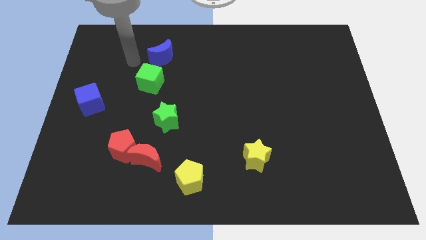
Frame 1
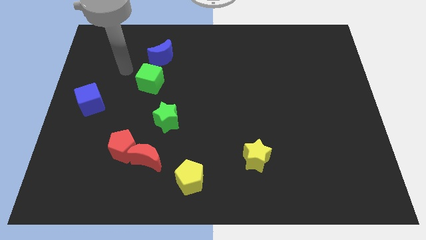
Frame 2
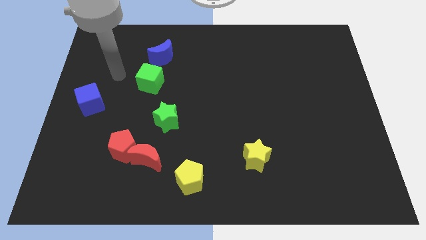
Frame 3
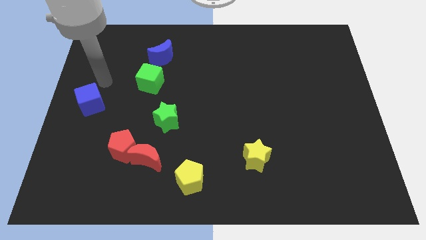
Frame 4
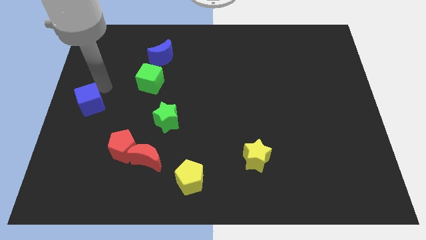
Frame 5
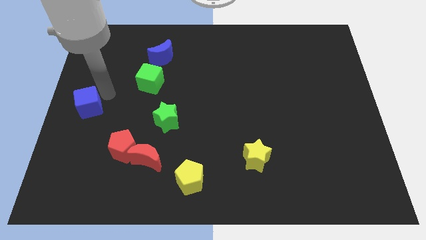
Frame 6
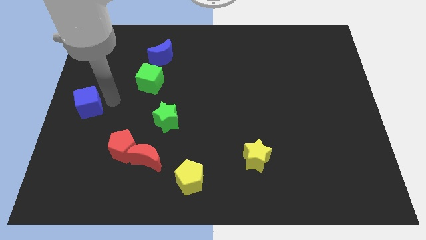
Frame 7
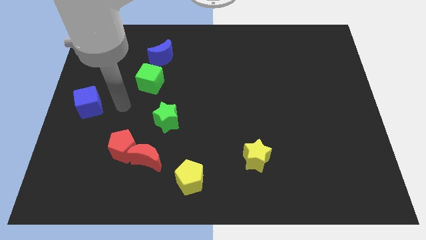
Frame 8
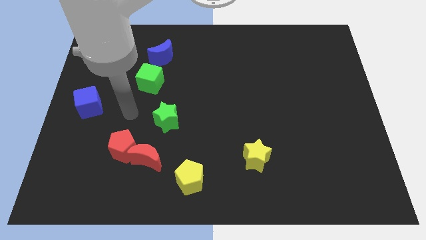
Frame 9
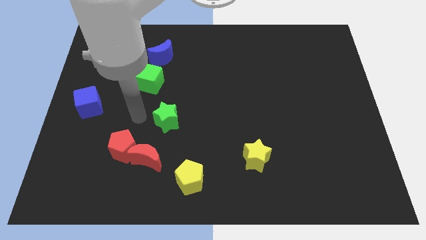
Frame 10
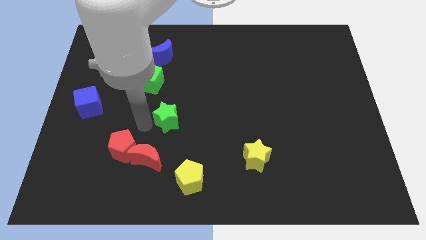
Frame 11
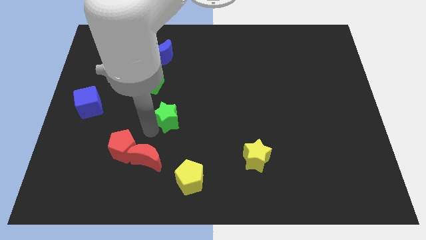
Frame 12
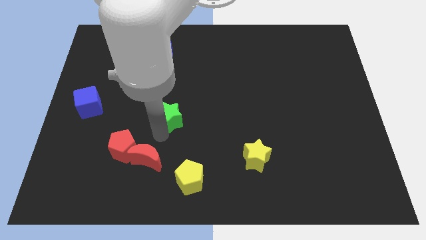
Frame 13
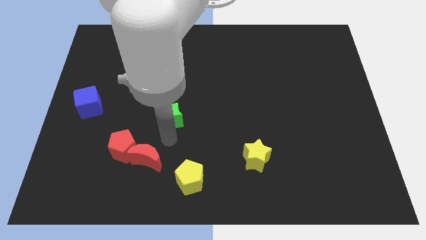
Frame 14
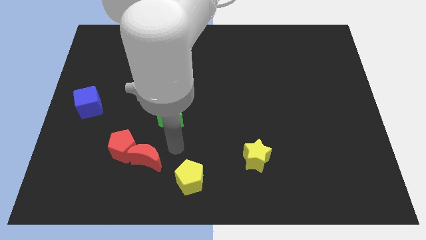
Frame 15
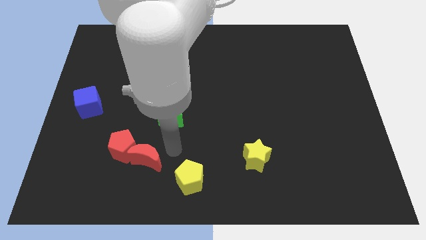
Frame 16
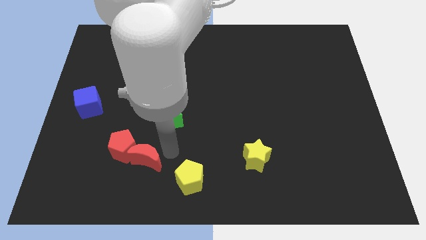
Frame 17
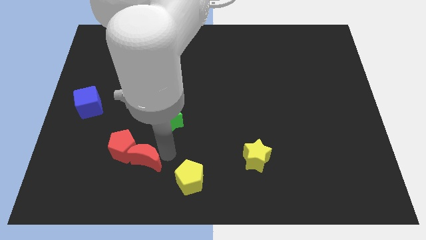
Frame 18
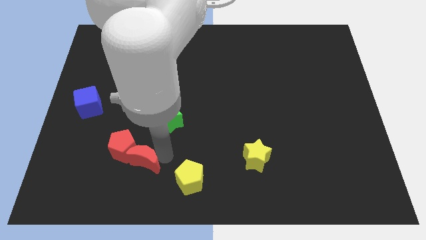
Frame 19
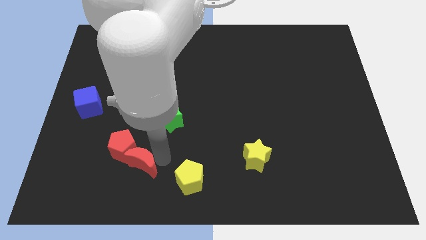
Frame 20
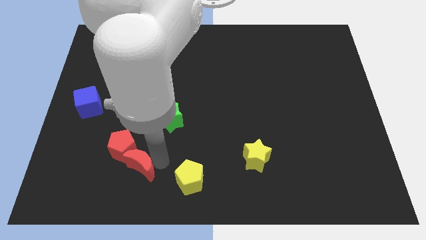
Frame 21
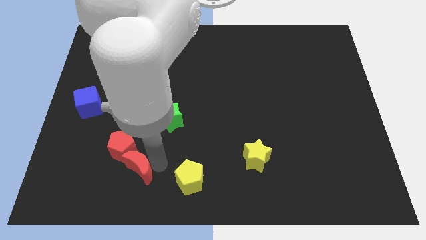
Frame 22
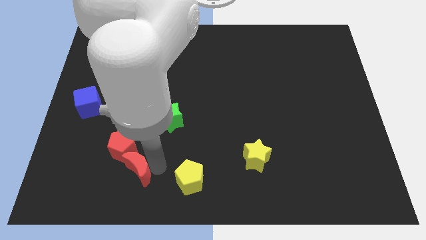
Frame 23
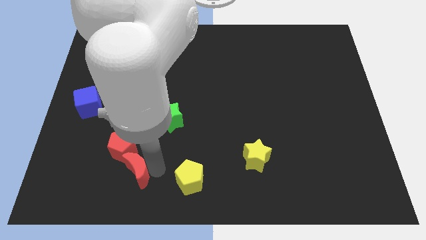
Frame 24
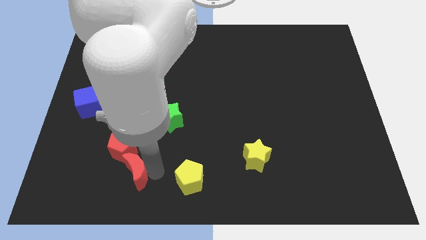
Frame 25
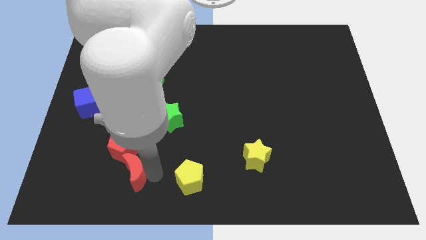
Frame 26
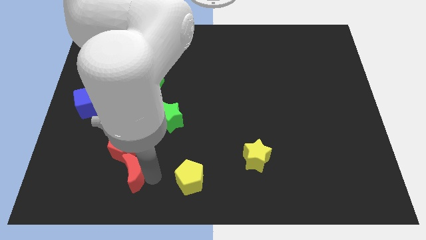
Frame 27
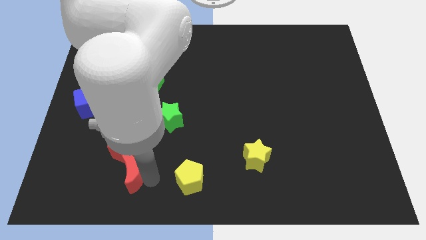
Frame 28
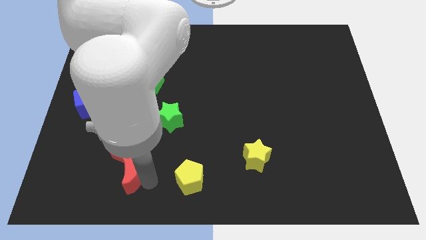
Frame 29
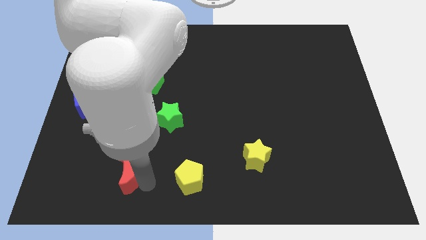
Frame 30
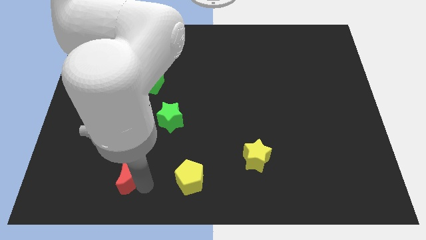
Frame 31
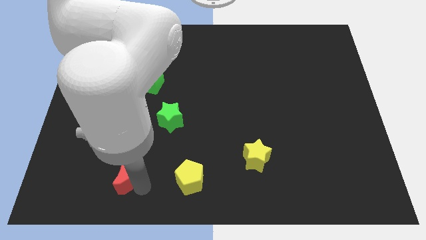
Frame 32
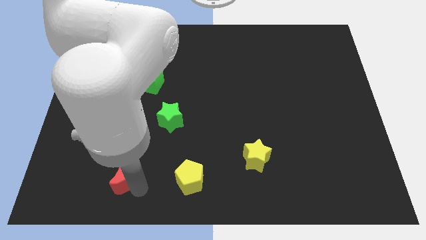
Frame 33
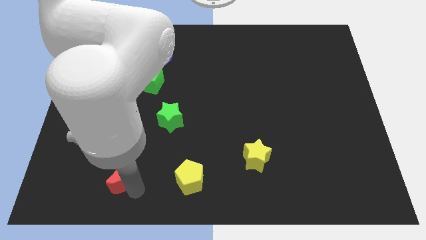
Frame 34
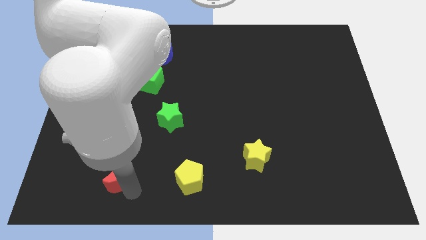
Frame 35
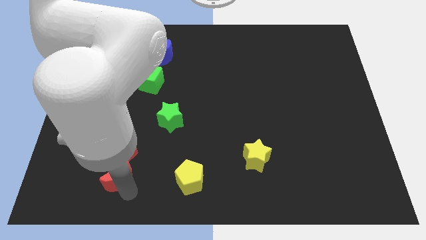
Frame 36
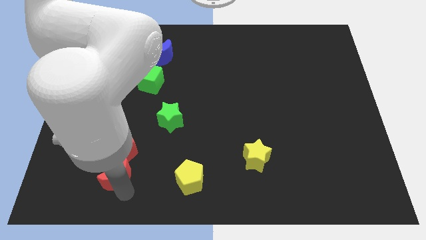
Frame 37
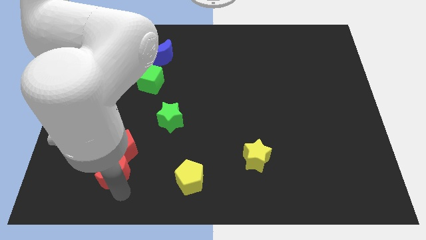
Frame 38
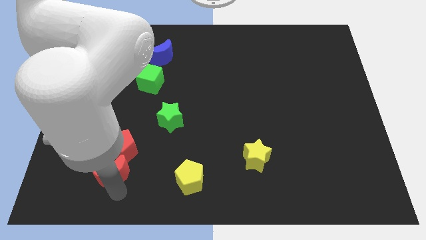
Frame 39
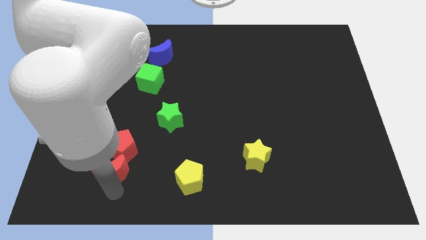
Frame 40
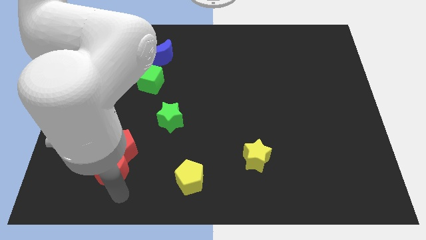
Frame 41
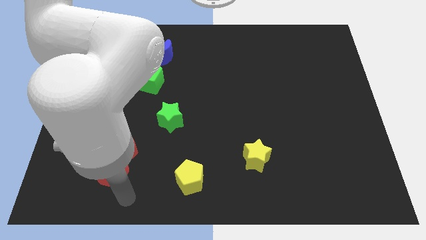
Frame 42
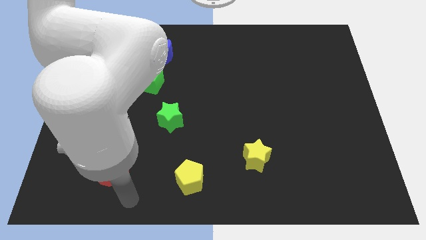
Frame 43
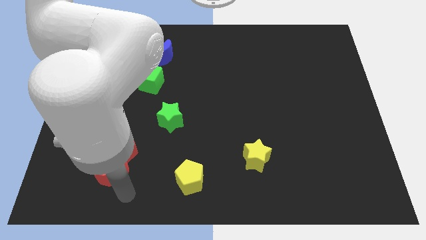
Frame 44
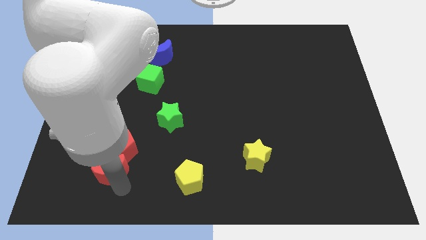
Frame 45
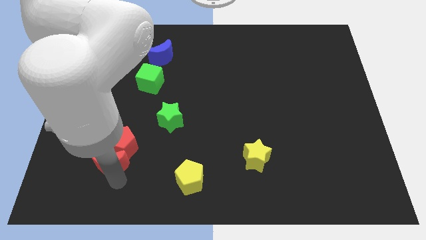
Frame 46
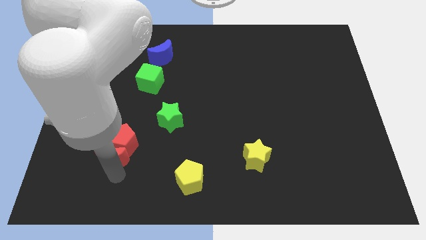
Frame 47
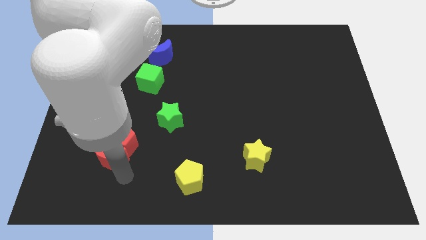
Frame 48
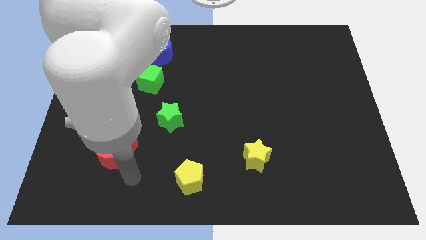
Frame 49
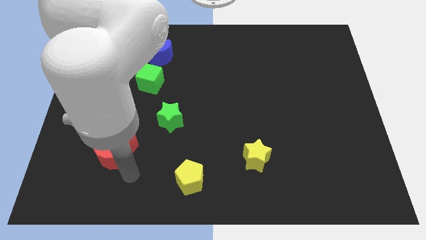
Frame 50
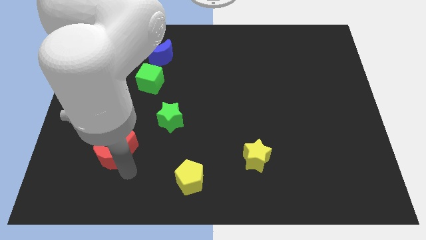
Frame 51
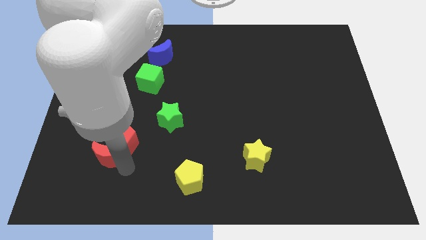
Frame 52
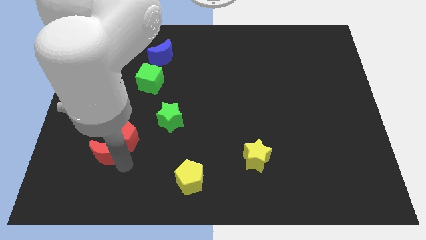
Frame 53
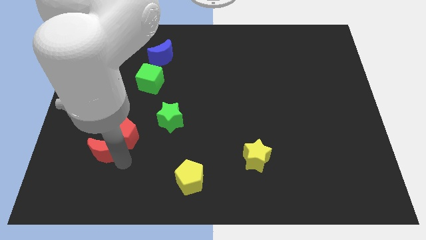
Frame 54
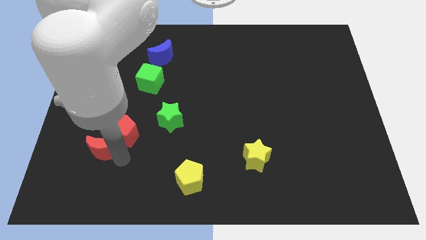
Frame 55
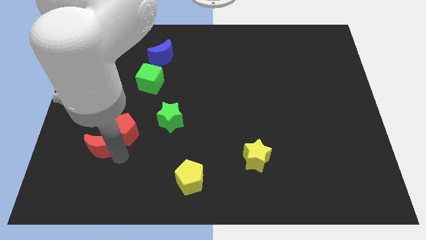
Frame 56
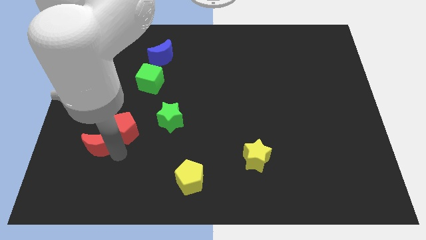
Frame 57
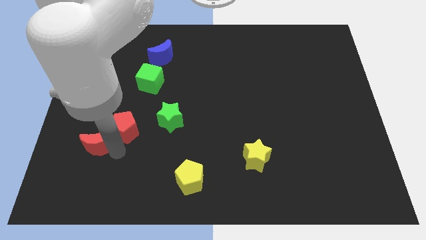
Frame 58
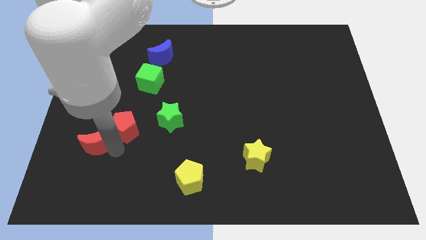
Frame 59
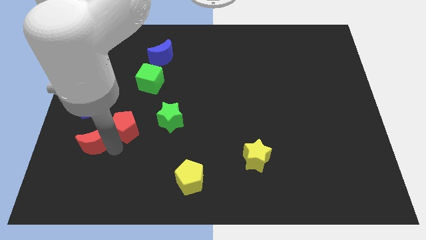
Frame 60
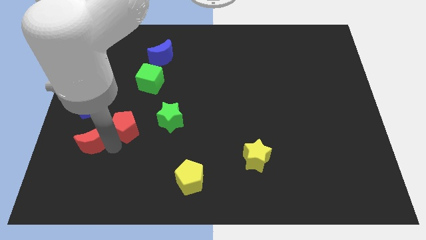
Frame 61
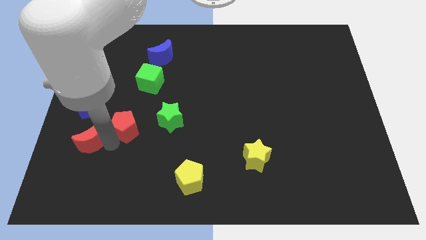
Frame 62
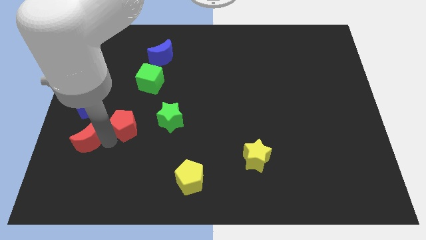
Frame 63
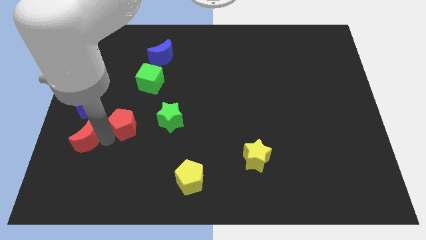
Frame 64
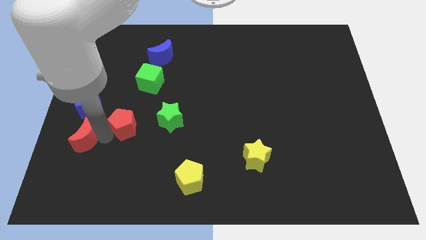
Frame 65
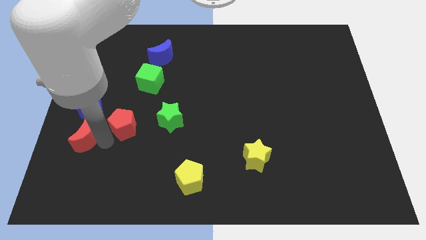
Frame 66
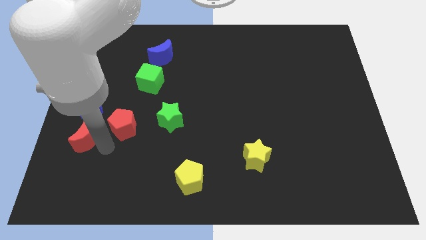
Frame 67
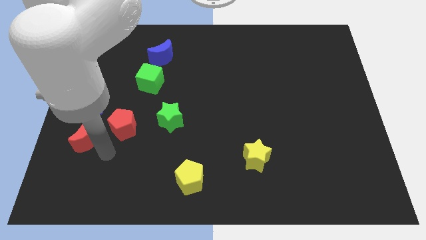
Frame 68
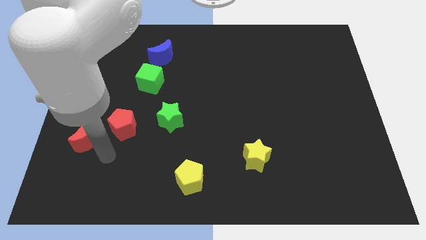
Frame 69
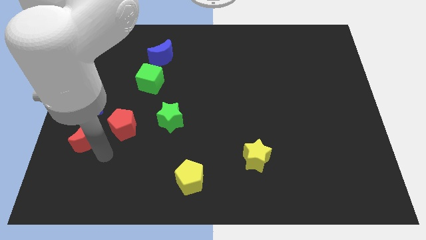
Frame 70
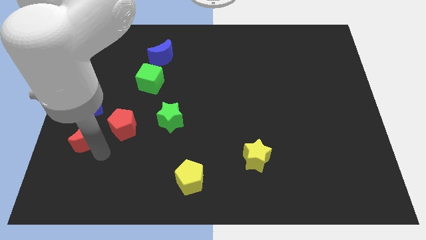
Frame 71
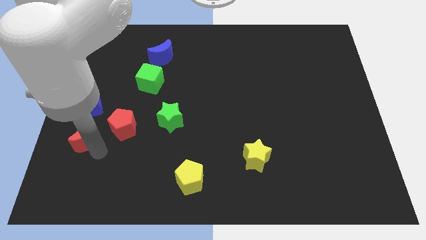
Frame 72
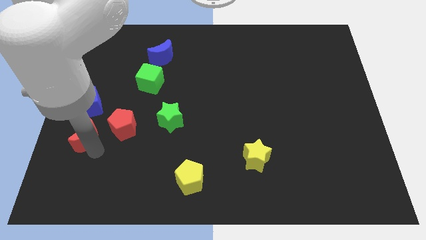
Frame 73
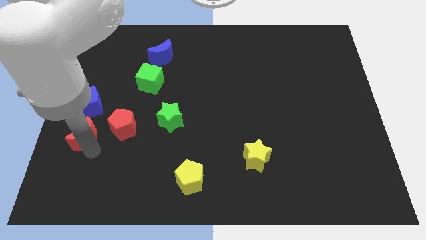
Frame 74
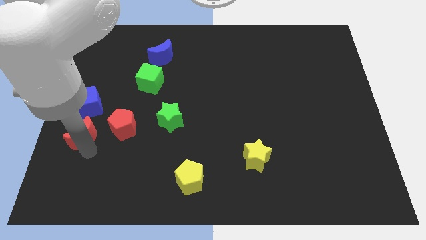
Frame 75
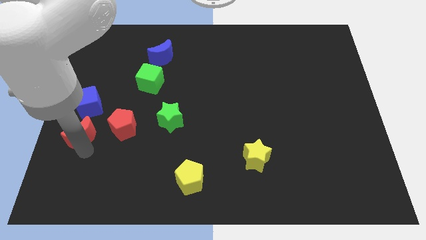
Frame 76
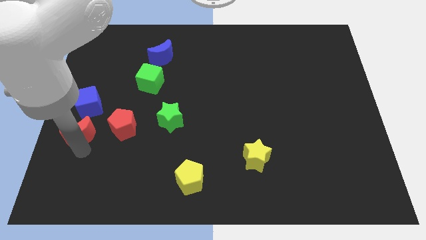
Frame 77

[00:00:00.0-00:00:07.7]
put the red moon to the left side of the board
